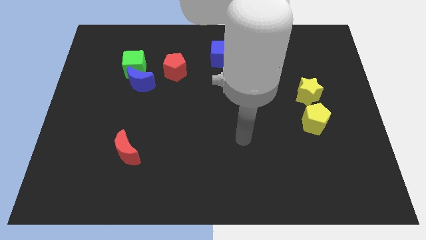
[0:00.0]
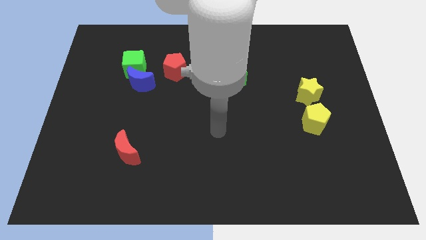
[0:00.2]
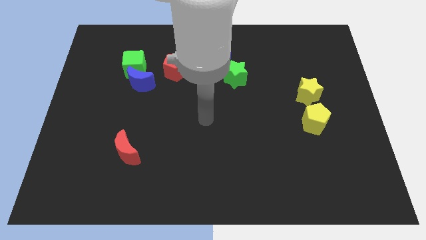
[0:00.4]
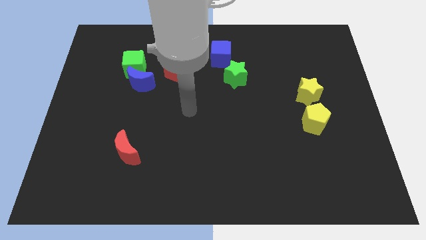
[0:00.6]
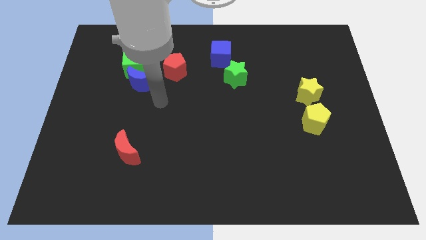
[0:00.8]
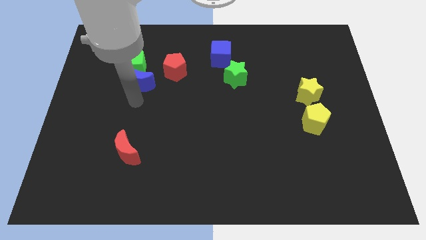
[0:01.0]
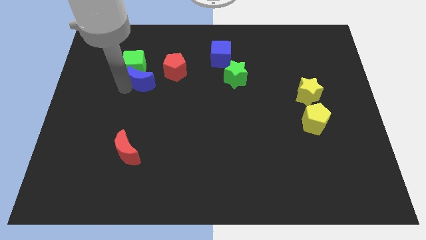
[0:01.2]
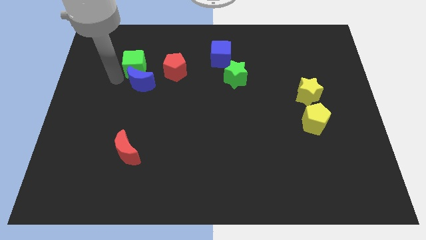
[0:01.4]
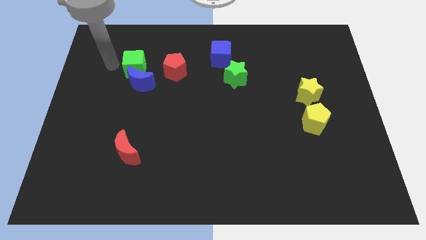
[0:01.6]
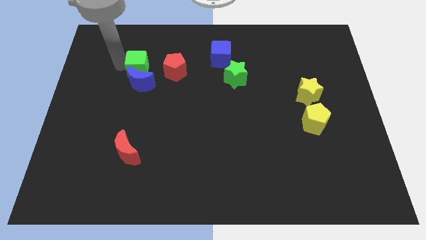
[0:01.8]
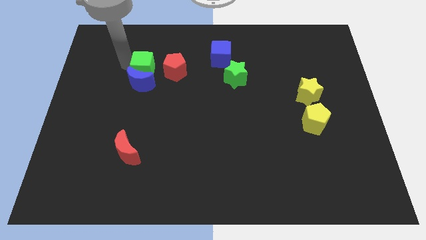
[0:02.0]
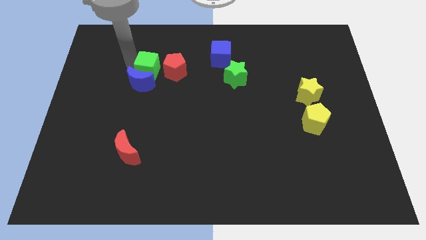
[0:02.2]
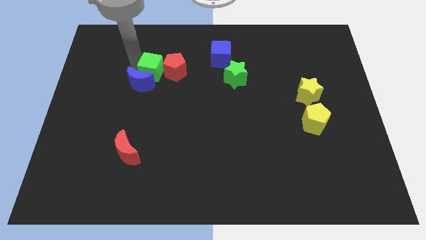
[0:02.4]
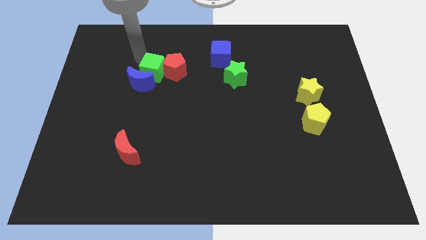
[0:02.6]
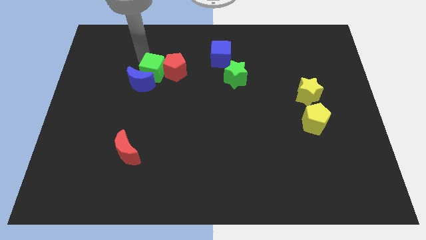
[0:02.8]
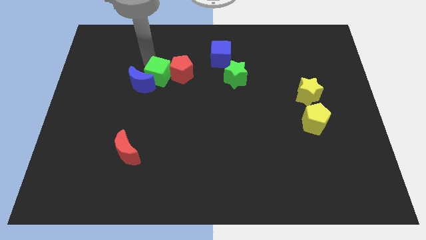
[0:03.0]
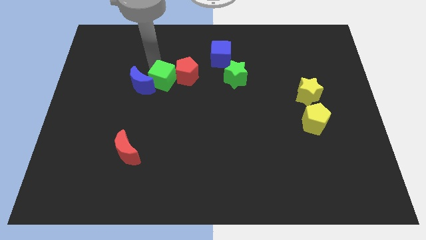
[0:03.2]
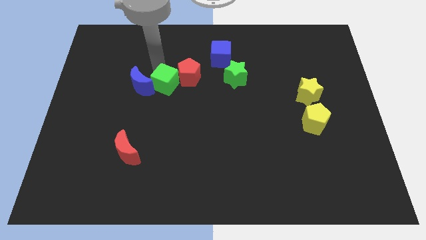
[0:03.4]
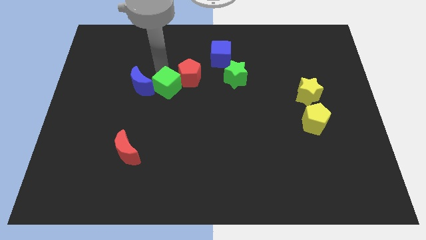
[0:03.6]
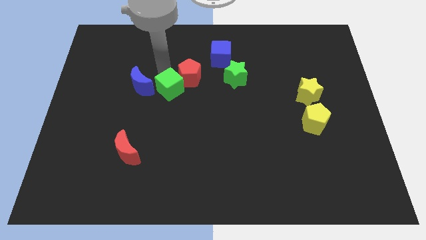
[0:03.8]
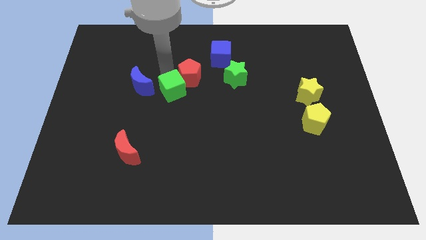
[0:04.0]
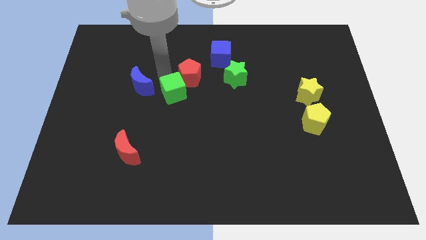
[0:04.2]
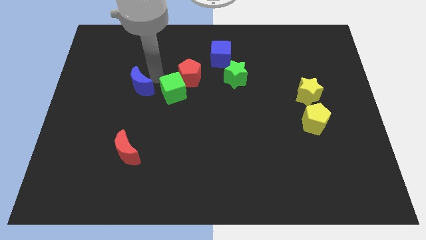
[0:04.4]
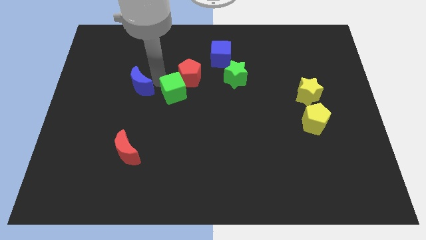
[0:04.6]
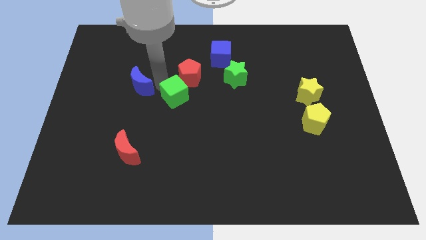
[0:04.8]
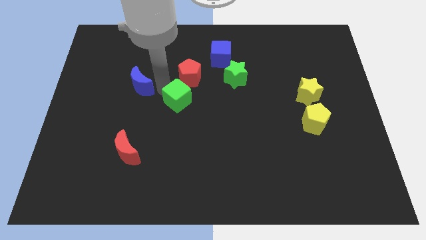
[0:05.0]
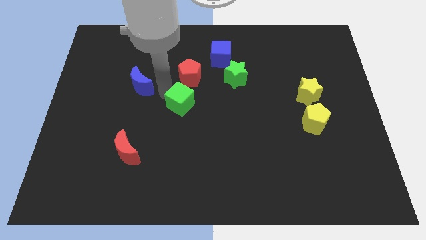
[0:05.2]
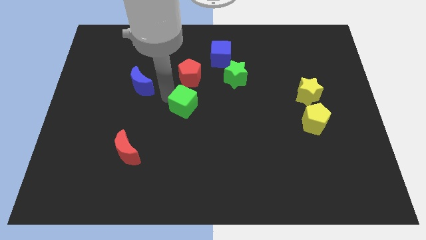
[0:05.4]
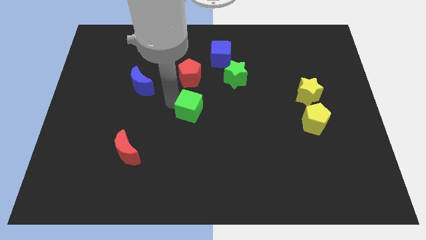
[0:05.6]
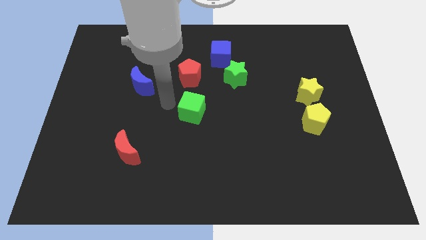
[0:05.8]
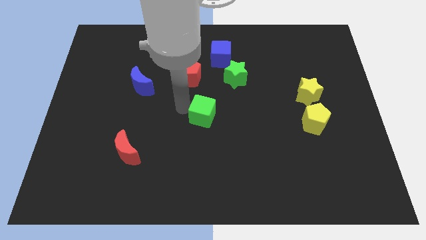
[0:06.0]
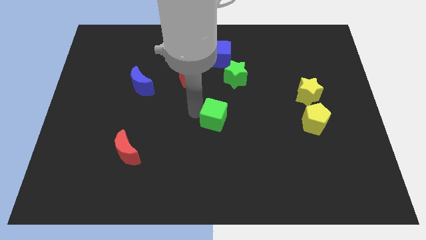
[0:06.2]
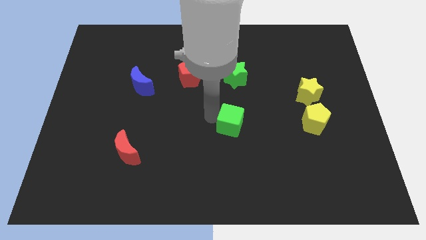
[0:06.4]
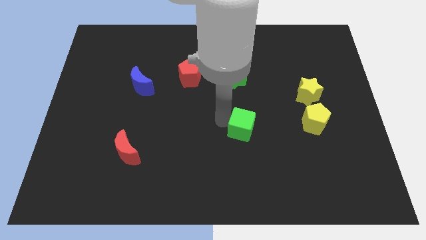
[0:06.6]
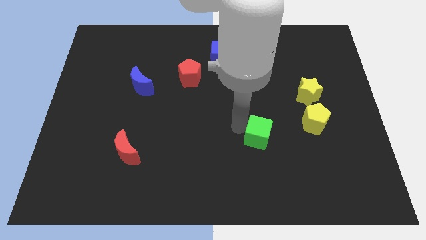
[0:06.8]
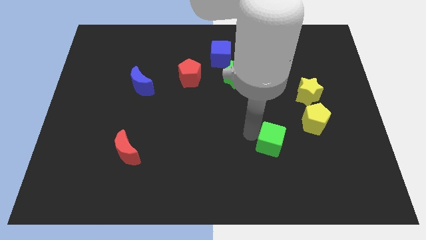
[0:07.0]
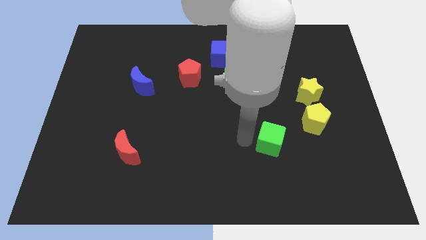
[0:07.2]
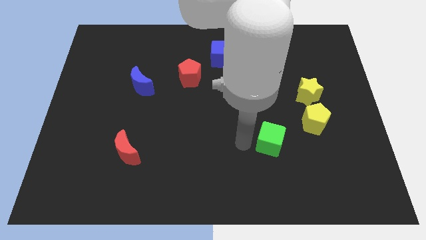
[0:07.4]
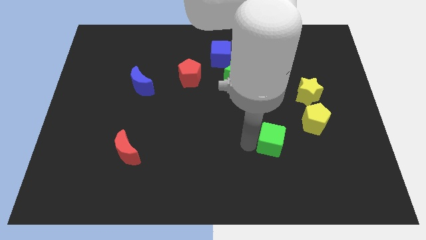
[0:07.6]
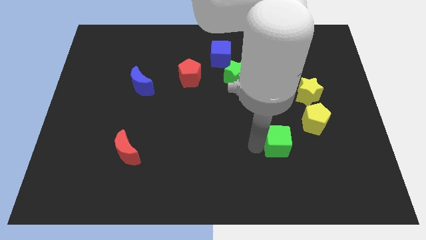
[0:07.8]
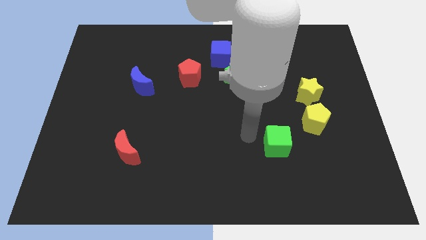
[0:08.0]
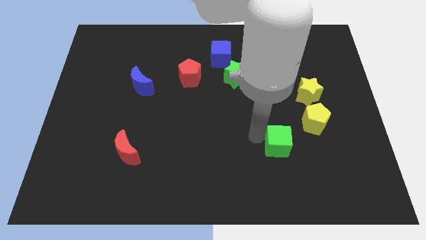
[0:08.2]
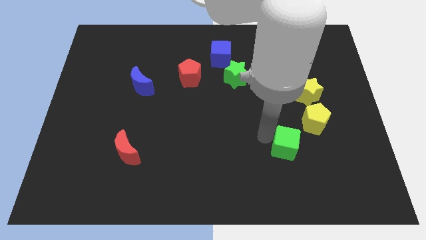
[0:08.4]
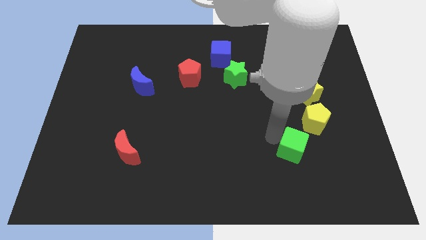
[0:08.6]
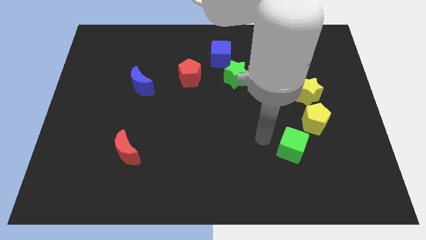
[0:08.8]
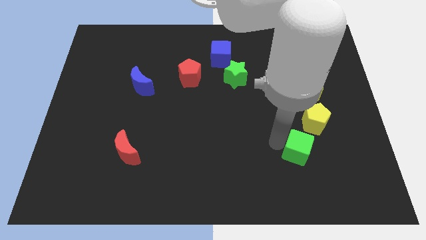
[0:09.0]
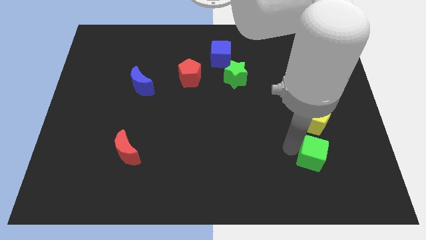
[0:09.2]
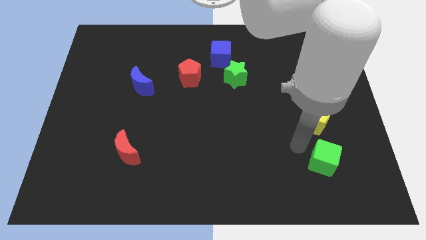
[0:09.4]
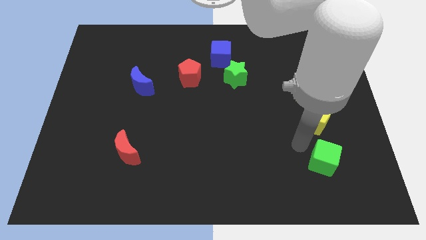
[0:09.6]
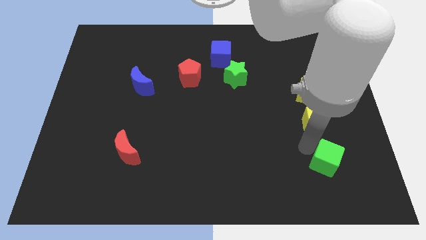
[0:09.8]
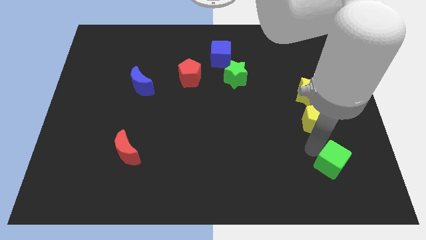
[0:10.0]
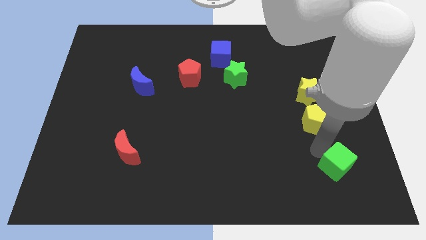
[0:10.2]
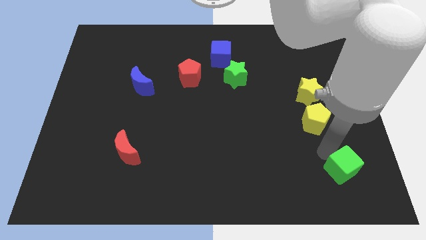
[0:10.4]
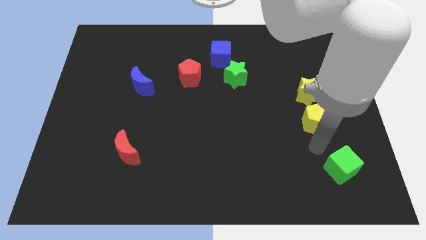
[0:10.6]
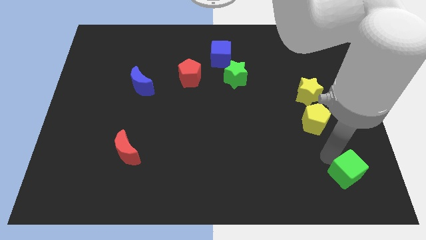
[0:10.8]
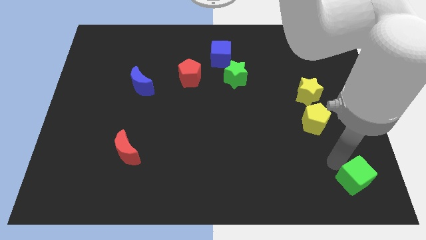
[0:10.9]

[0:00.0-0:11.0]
slide the green cube to the lower right corner

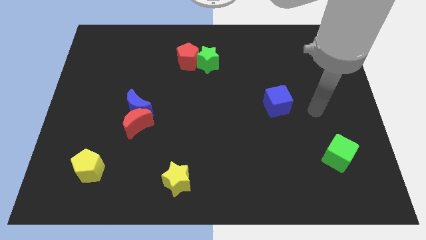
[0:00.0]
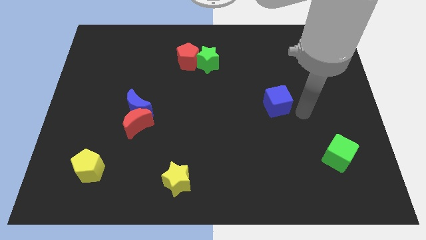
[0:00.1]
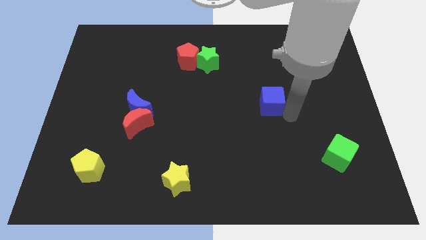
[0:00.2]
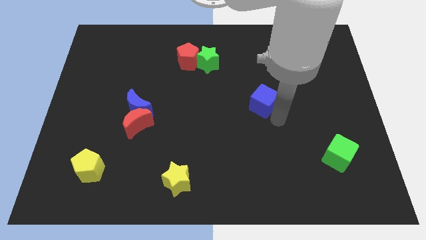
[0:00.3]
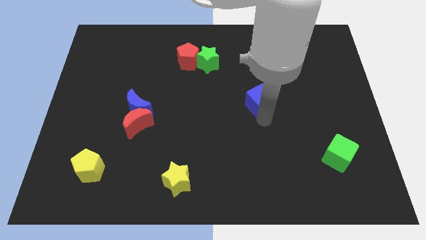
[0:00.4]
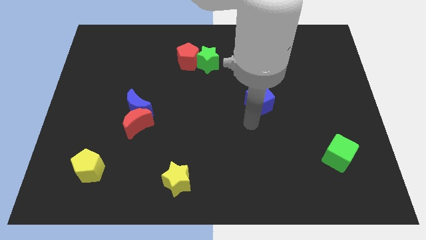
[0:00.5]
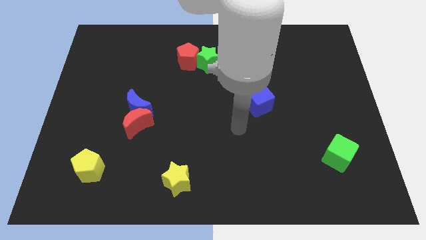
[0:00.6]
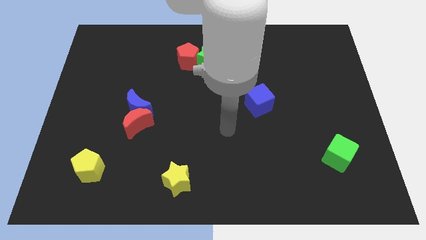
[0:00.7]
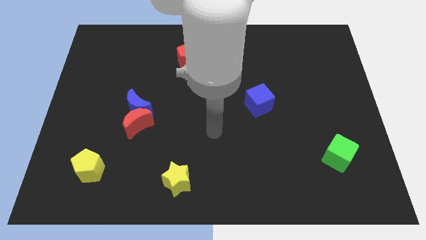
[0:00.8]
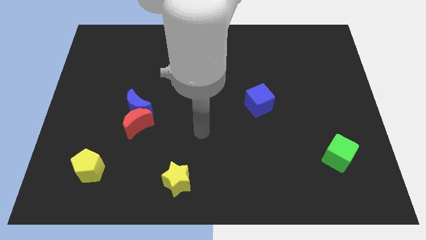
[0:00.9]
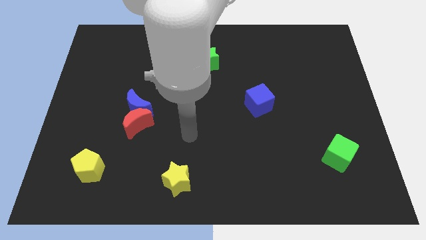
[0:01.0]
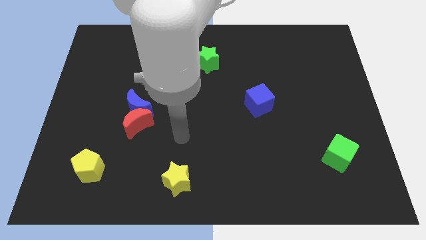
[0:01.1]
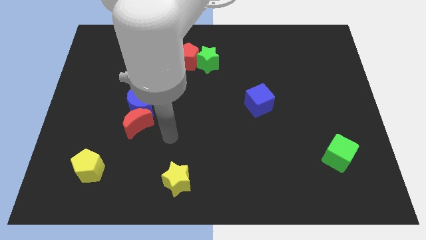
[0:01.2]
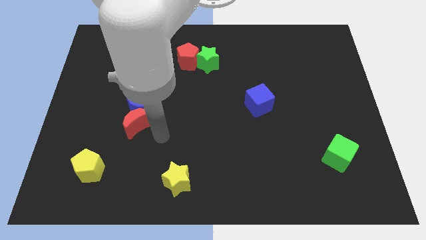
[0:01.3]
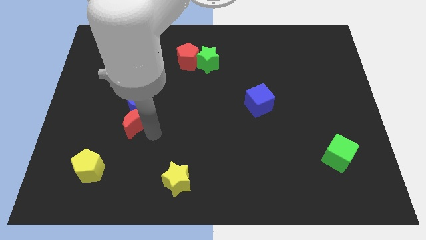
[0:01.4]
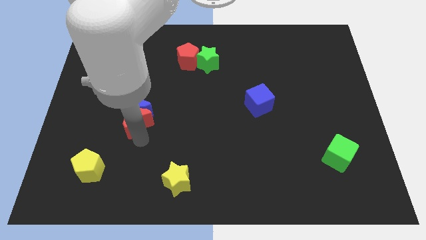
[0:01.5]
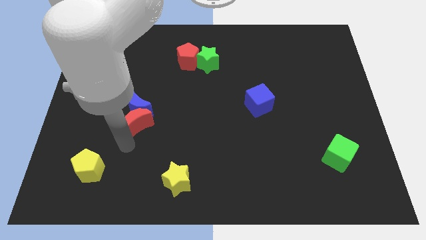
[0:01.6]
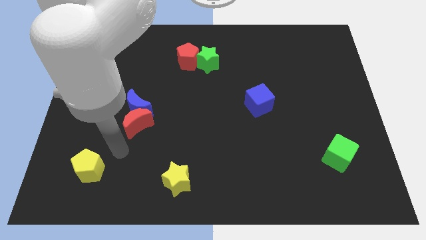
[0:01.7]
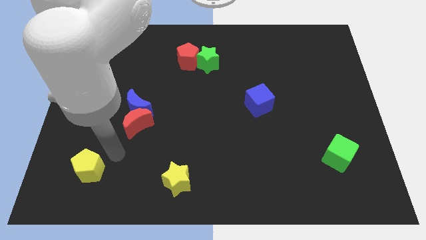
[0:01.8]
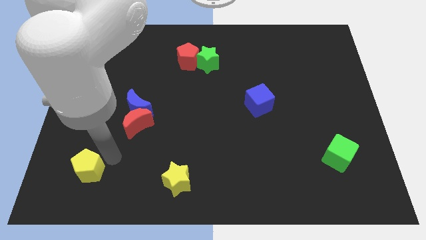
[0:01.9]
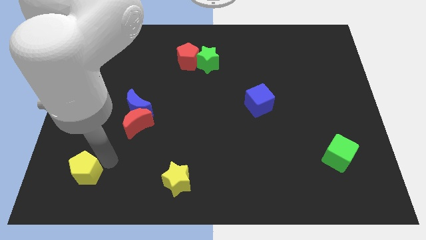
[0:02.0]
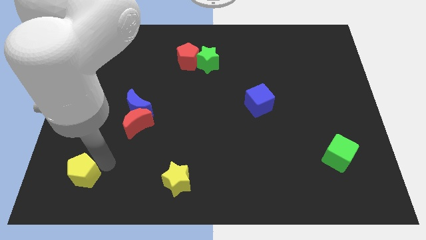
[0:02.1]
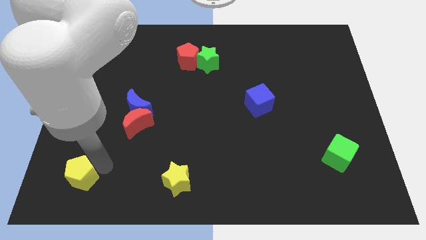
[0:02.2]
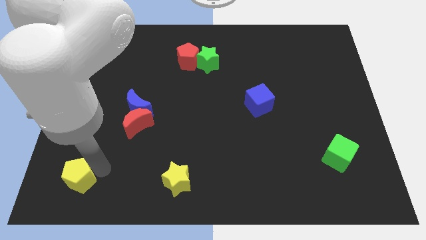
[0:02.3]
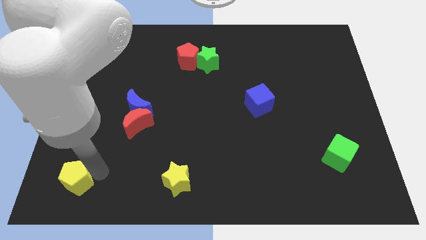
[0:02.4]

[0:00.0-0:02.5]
push the yellow pentagon to the bottom left of the board
